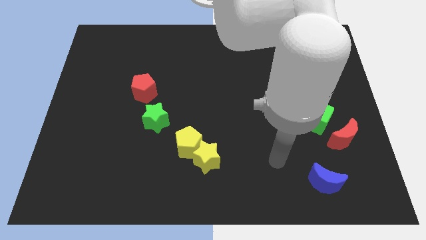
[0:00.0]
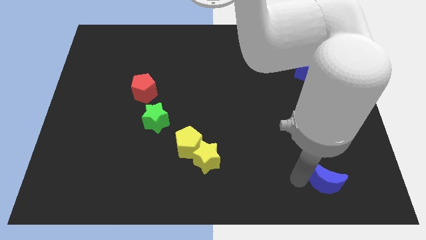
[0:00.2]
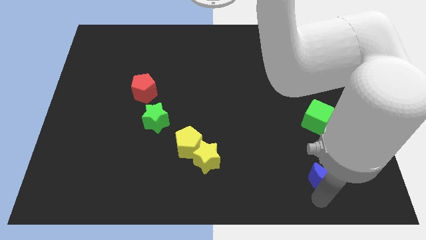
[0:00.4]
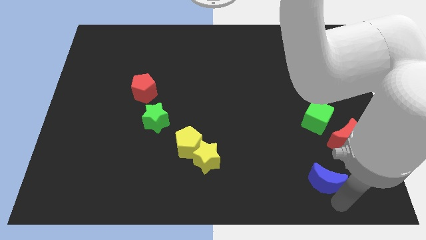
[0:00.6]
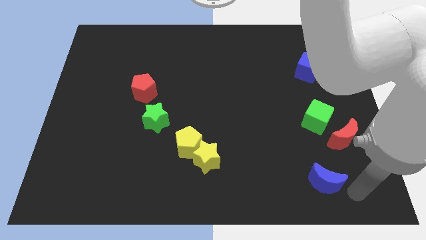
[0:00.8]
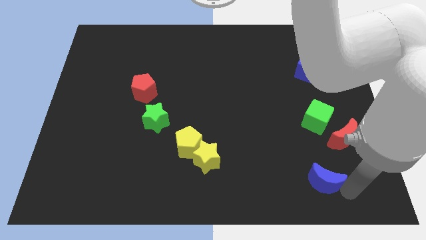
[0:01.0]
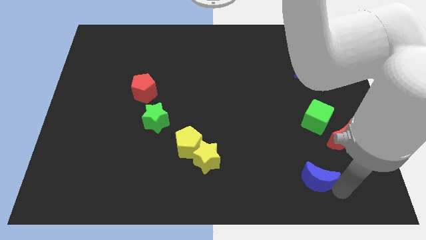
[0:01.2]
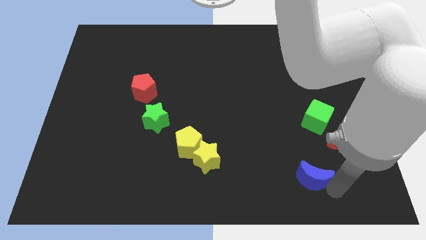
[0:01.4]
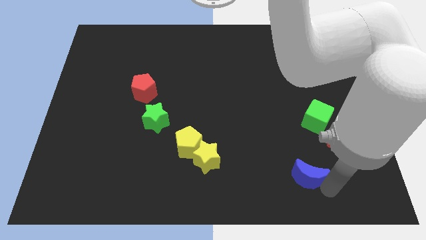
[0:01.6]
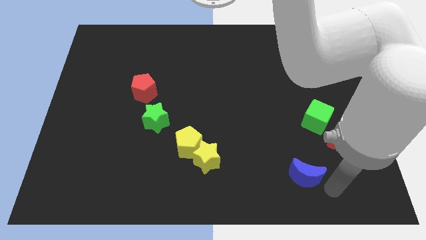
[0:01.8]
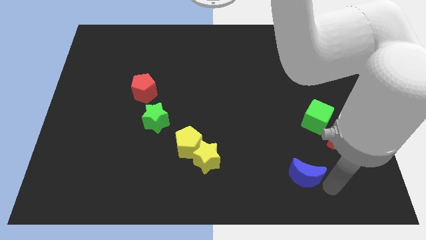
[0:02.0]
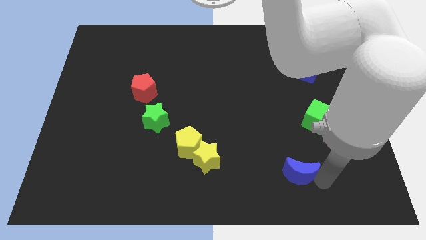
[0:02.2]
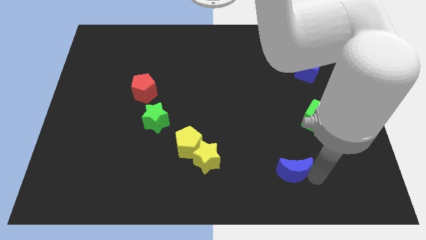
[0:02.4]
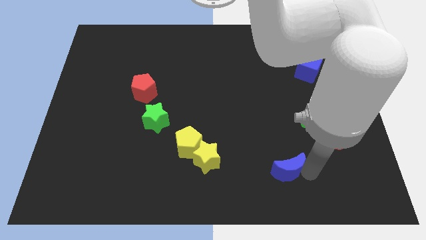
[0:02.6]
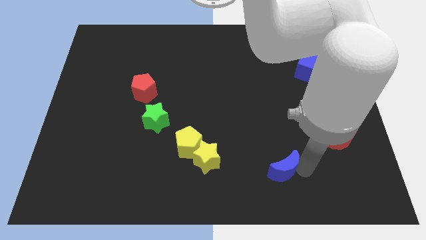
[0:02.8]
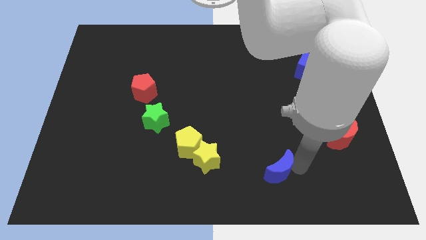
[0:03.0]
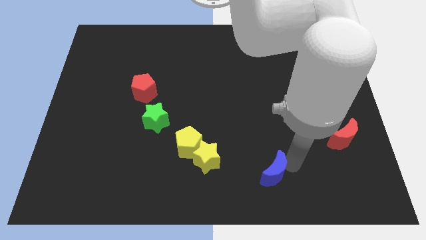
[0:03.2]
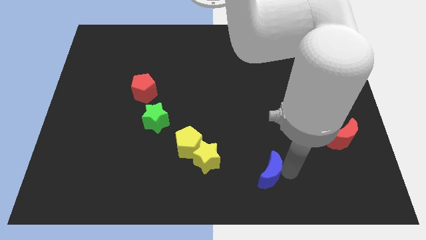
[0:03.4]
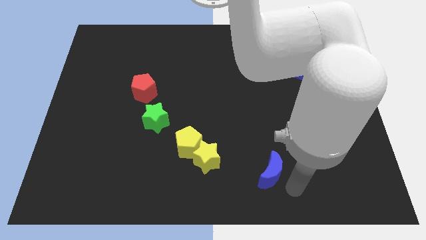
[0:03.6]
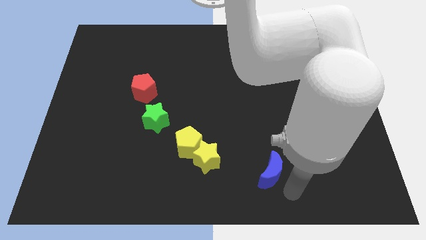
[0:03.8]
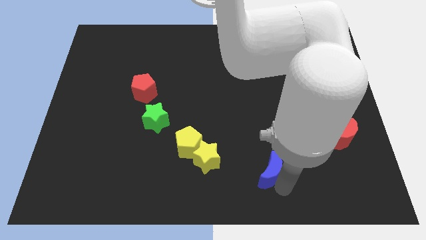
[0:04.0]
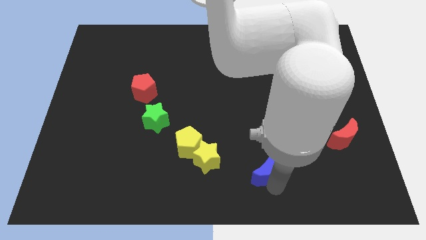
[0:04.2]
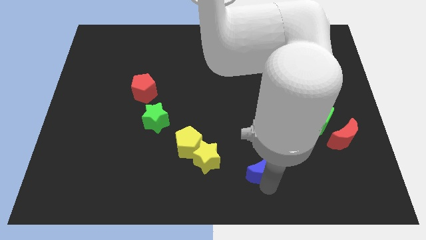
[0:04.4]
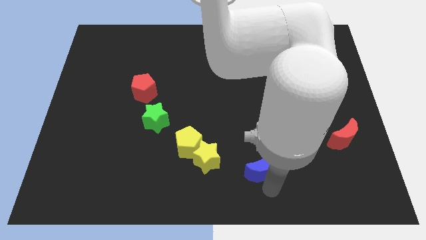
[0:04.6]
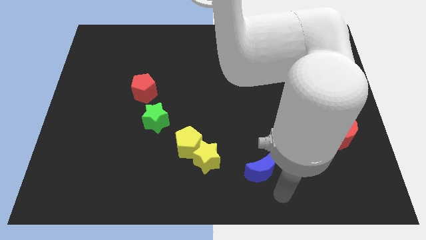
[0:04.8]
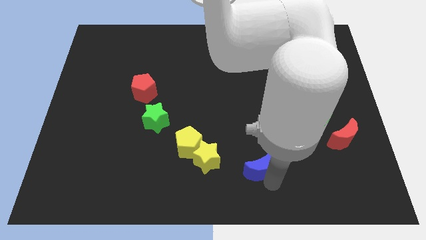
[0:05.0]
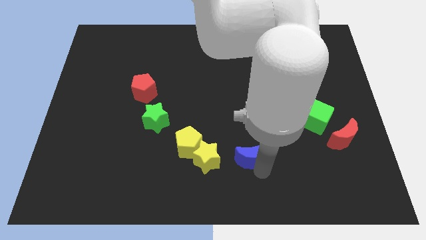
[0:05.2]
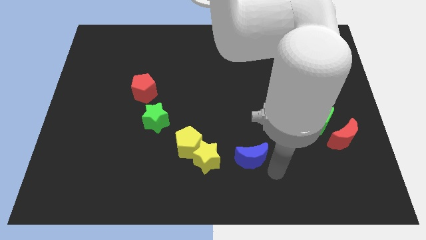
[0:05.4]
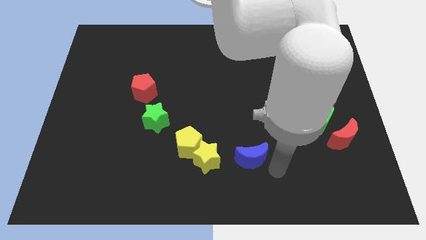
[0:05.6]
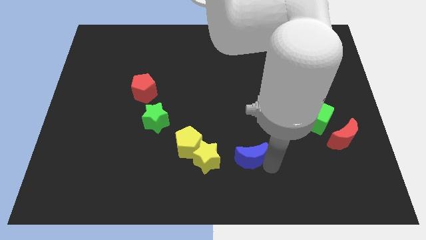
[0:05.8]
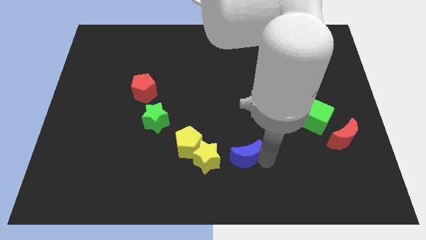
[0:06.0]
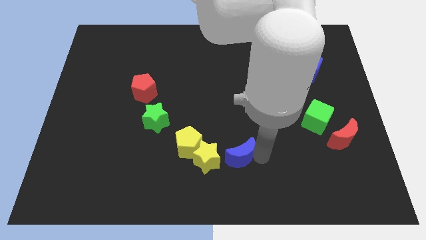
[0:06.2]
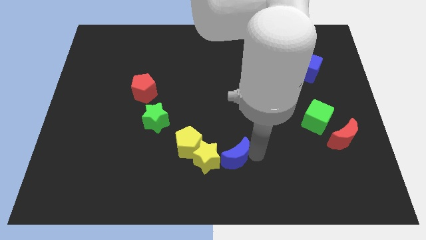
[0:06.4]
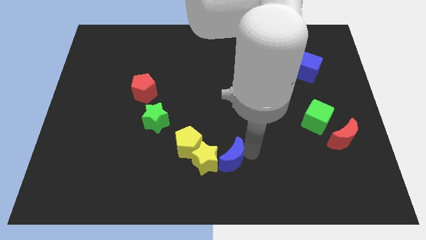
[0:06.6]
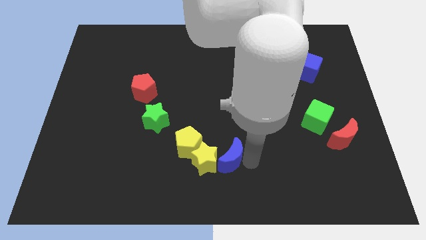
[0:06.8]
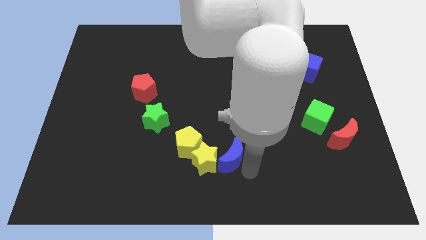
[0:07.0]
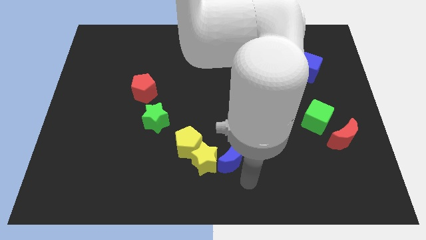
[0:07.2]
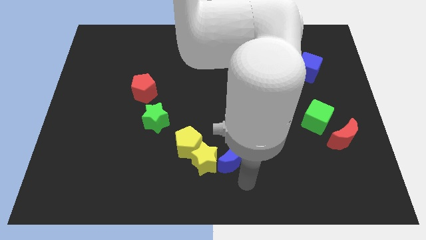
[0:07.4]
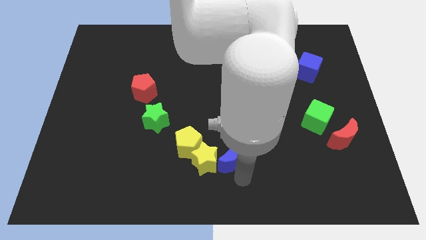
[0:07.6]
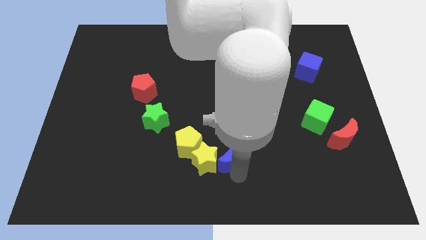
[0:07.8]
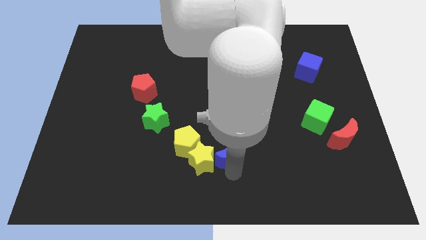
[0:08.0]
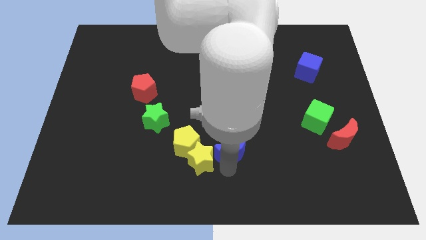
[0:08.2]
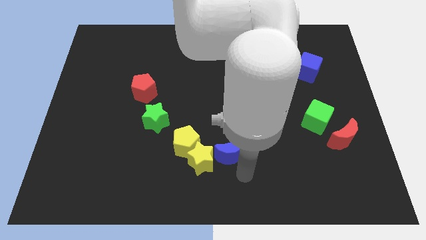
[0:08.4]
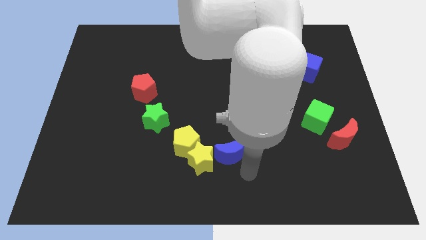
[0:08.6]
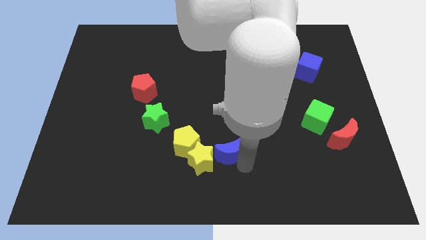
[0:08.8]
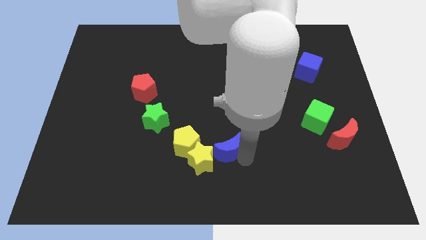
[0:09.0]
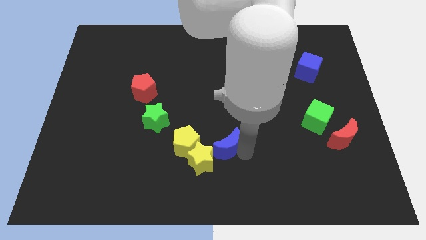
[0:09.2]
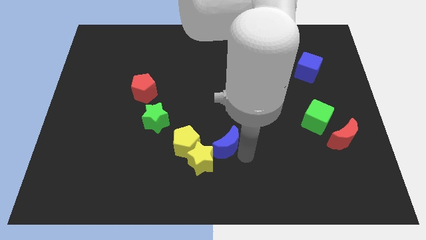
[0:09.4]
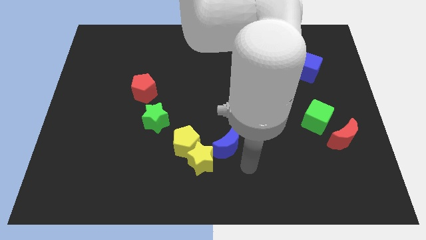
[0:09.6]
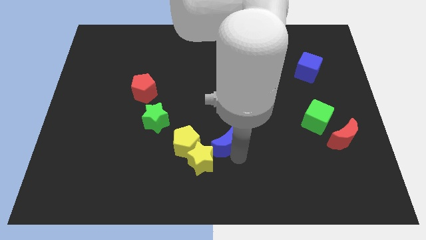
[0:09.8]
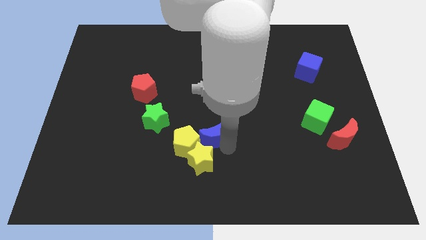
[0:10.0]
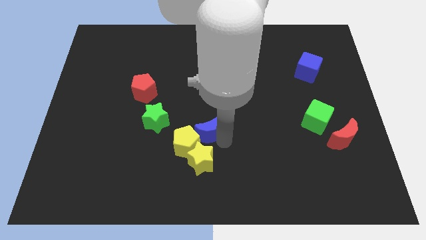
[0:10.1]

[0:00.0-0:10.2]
put the blue moon next to the yellow pentagon

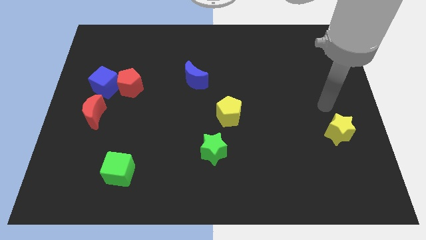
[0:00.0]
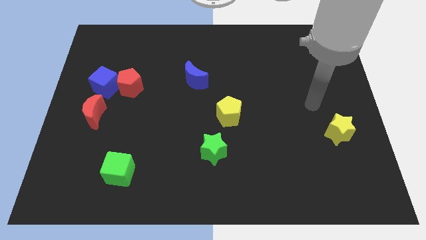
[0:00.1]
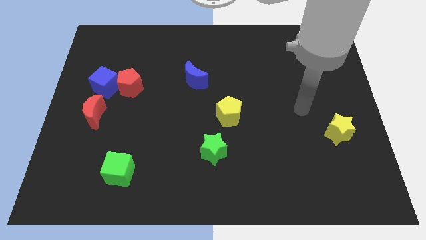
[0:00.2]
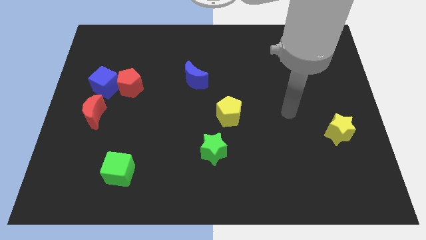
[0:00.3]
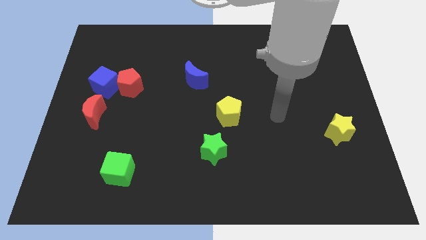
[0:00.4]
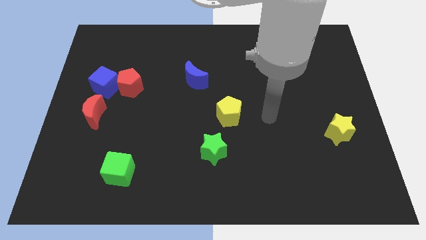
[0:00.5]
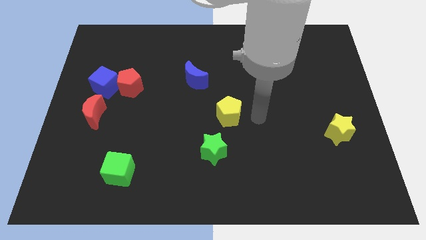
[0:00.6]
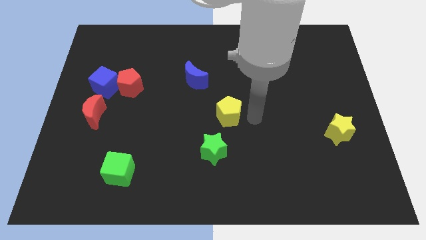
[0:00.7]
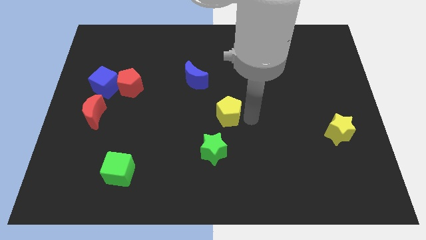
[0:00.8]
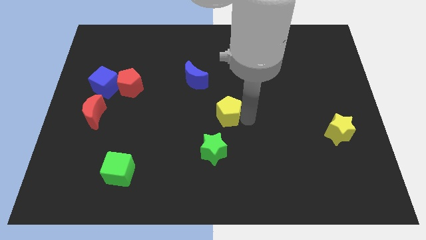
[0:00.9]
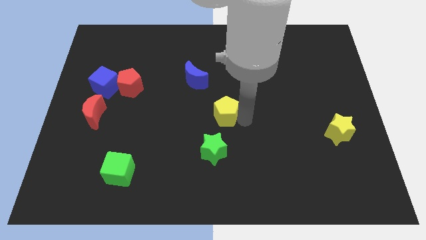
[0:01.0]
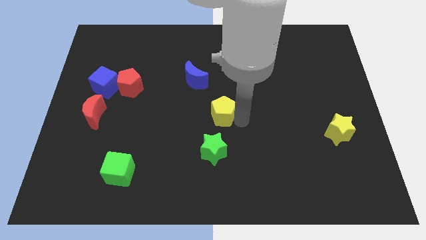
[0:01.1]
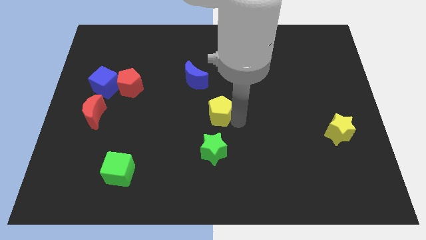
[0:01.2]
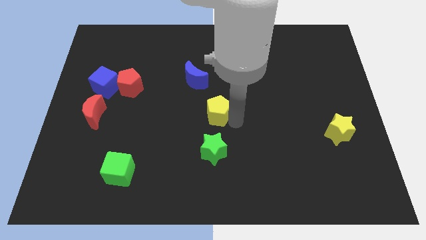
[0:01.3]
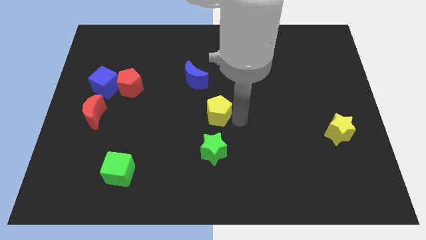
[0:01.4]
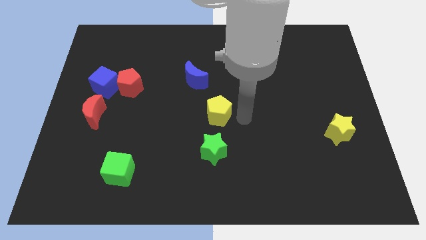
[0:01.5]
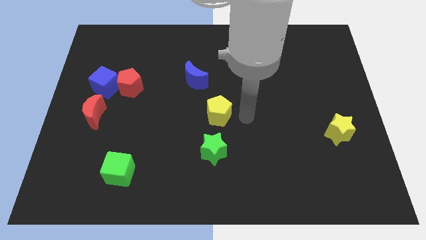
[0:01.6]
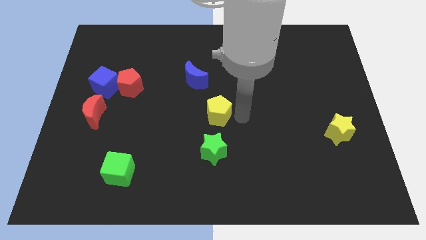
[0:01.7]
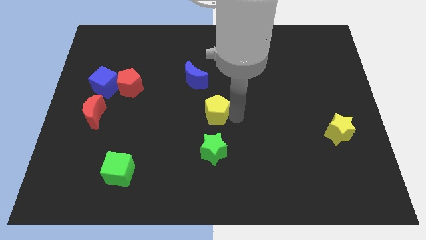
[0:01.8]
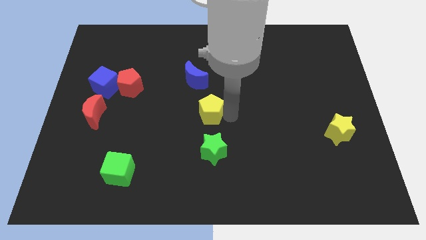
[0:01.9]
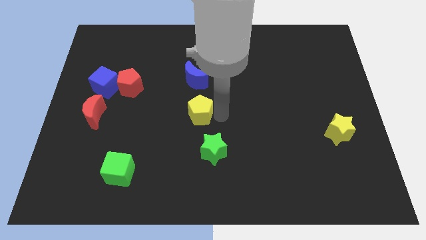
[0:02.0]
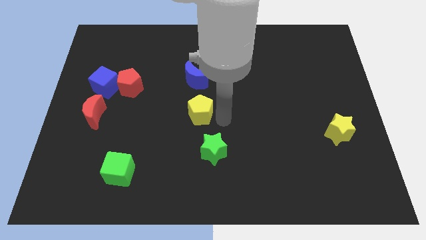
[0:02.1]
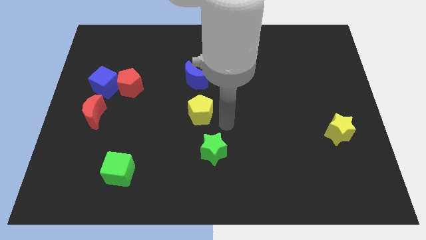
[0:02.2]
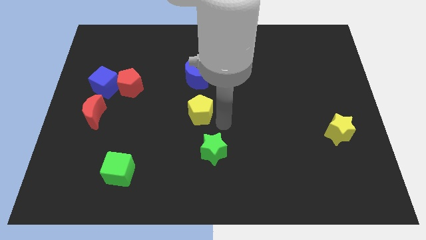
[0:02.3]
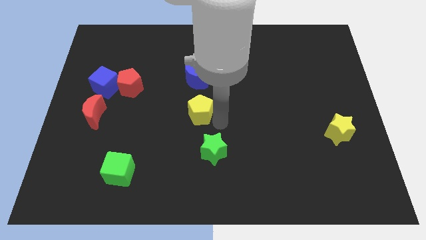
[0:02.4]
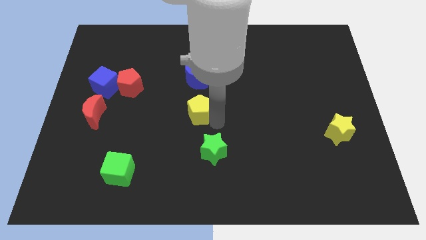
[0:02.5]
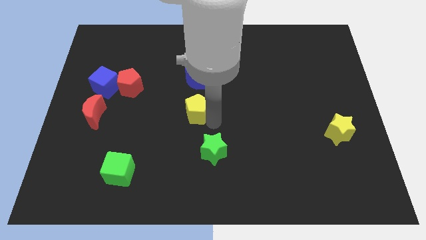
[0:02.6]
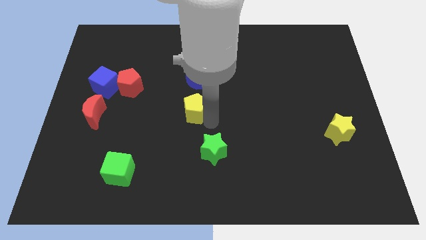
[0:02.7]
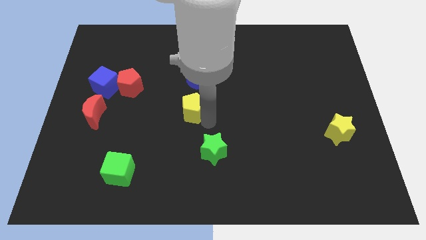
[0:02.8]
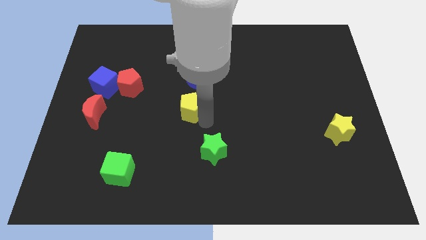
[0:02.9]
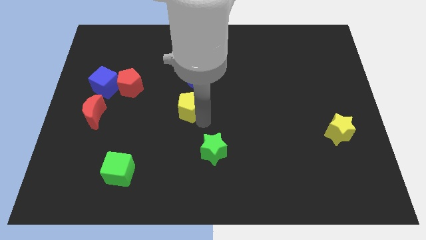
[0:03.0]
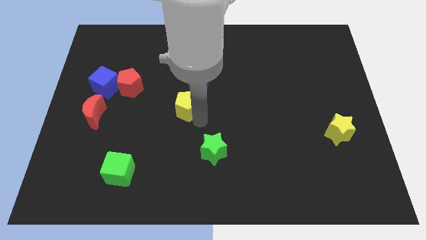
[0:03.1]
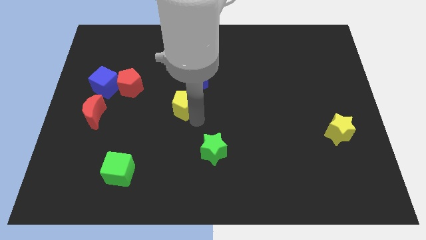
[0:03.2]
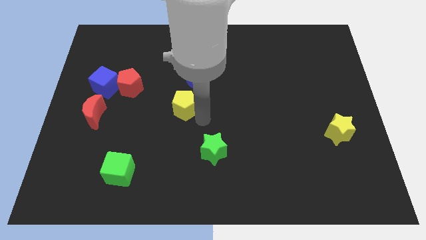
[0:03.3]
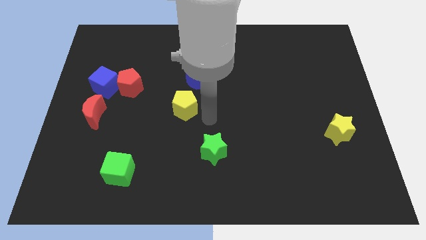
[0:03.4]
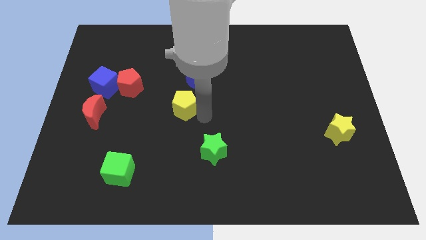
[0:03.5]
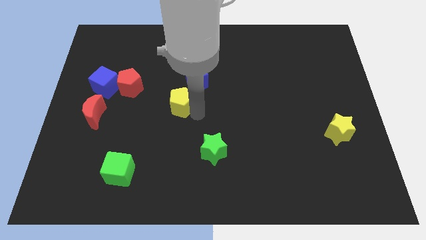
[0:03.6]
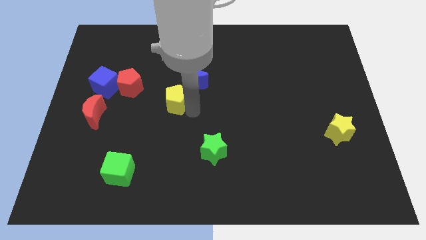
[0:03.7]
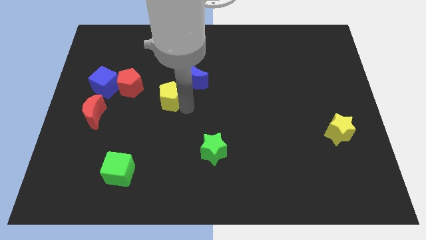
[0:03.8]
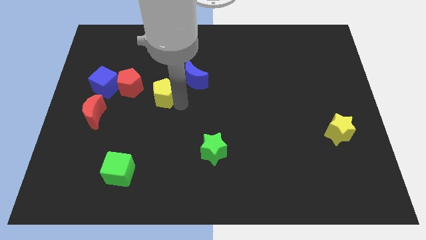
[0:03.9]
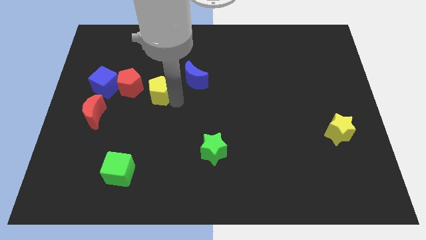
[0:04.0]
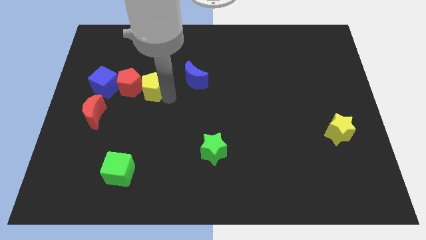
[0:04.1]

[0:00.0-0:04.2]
slide the yellow pentagon towards the red pentagon
